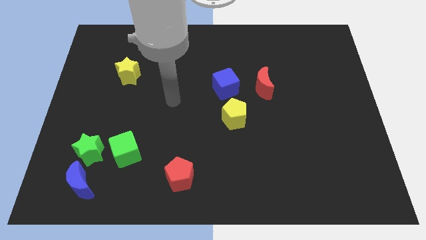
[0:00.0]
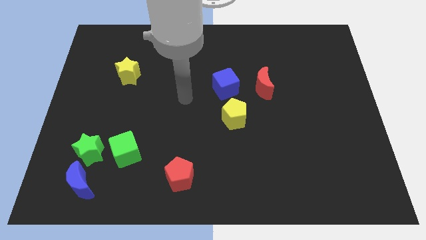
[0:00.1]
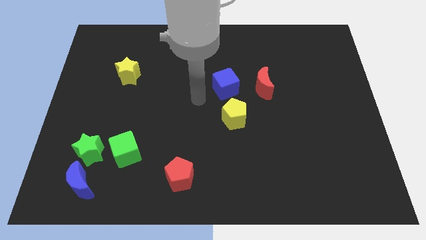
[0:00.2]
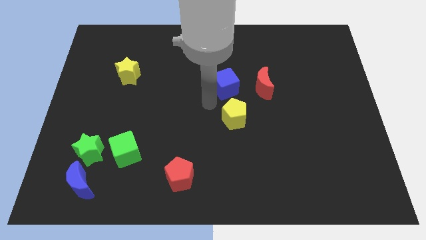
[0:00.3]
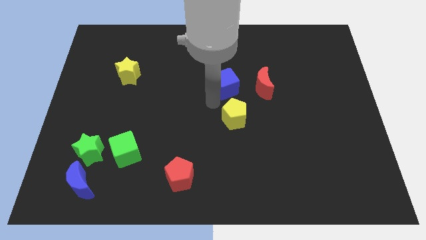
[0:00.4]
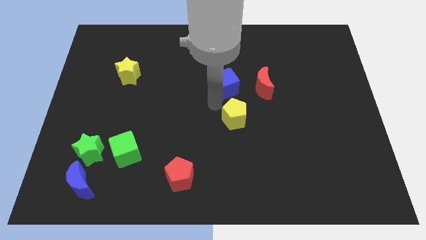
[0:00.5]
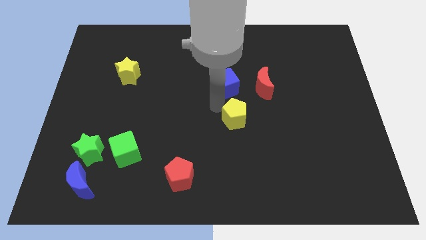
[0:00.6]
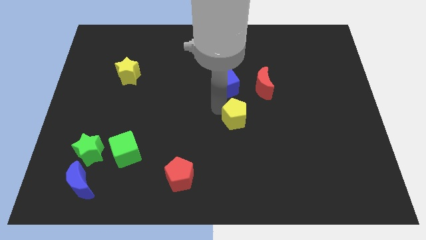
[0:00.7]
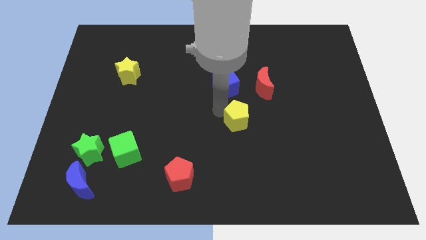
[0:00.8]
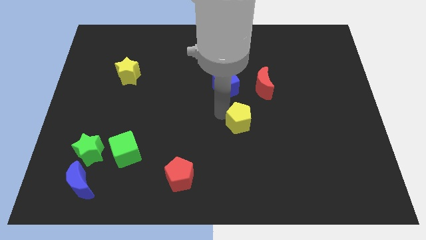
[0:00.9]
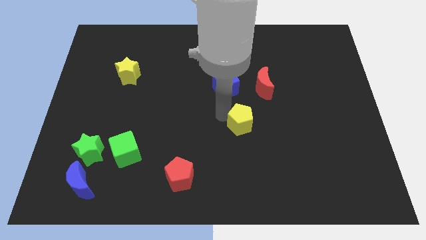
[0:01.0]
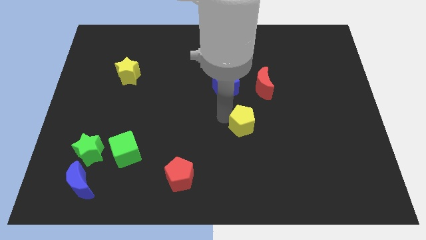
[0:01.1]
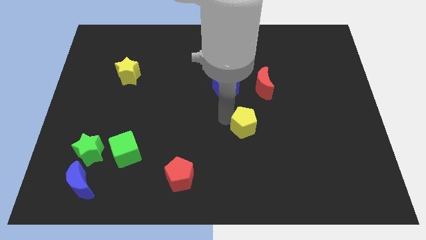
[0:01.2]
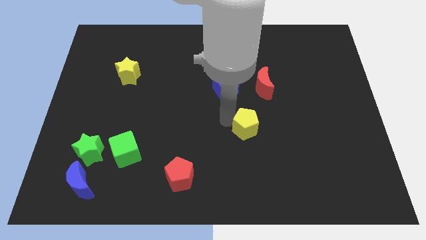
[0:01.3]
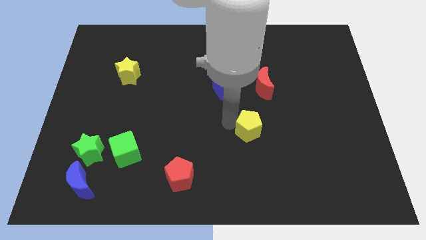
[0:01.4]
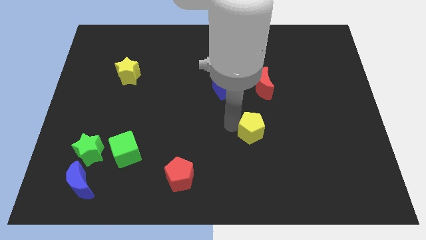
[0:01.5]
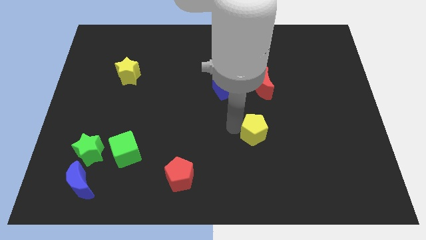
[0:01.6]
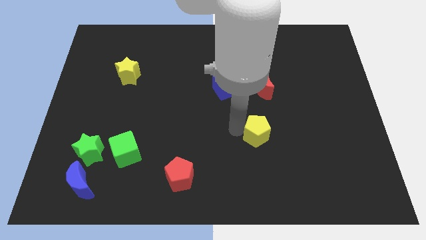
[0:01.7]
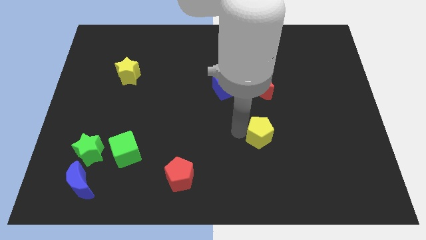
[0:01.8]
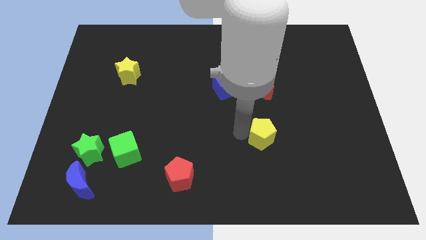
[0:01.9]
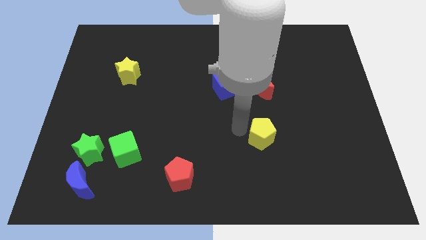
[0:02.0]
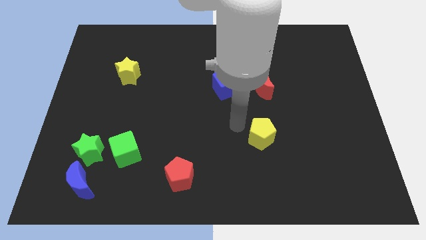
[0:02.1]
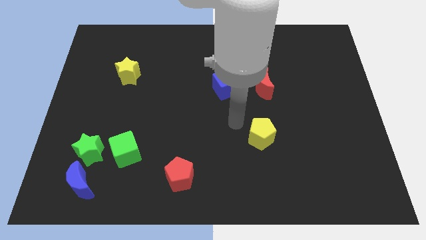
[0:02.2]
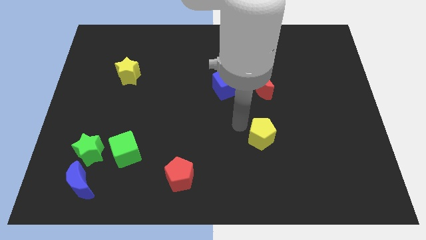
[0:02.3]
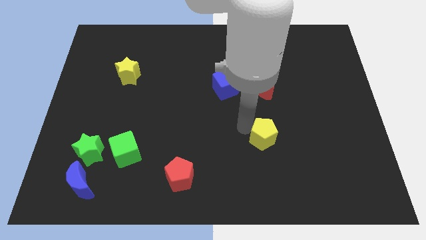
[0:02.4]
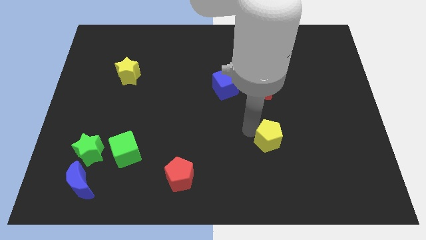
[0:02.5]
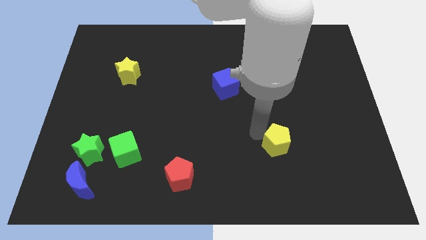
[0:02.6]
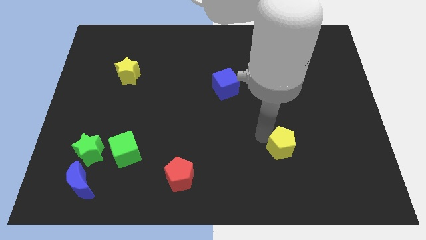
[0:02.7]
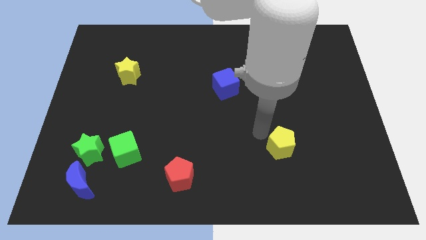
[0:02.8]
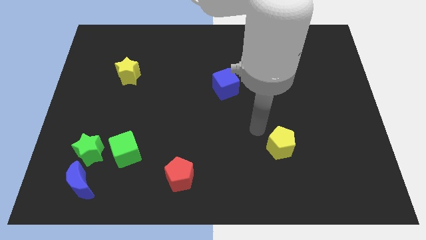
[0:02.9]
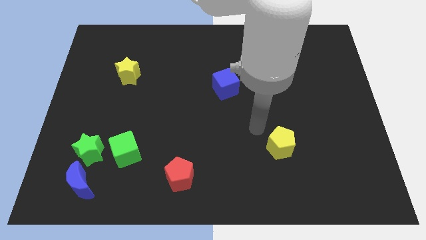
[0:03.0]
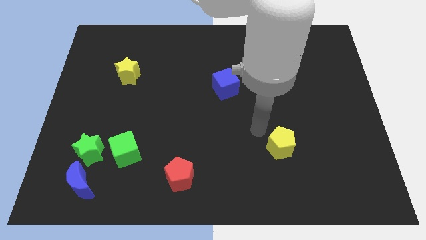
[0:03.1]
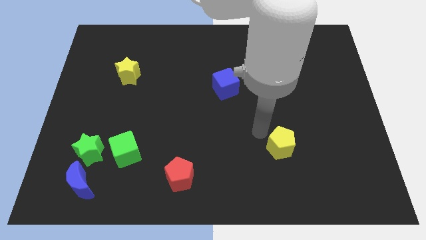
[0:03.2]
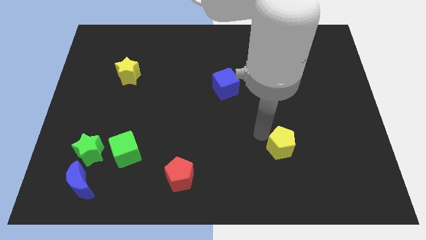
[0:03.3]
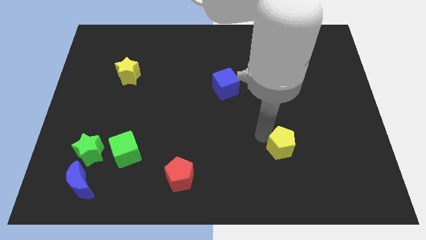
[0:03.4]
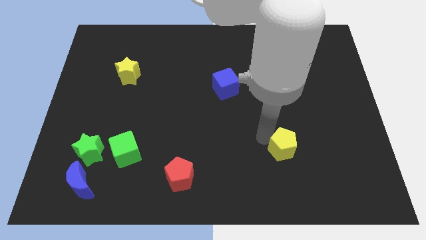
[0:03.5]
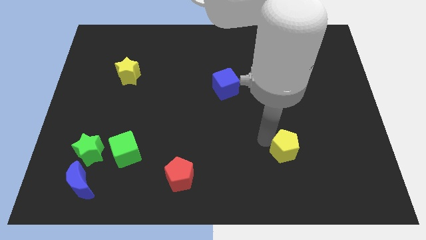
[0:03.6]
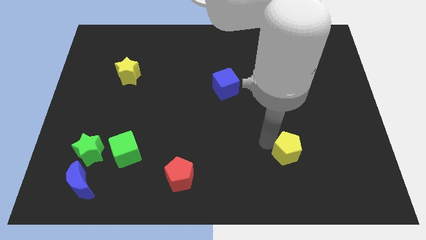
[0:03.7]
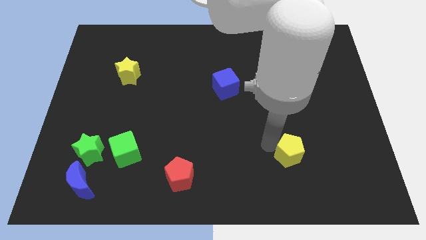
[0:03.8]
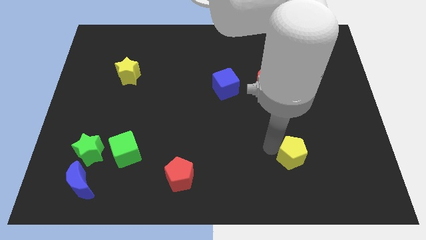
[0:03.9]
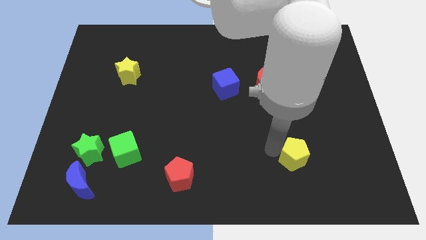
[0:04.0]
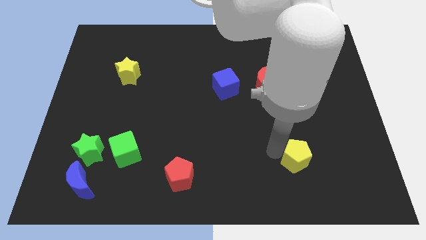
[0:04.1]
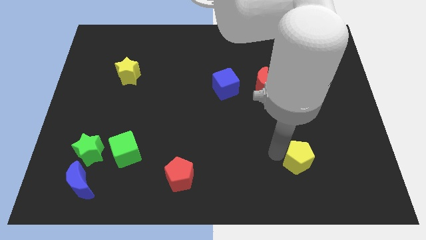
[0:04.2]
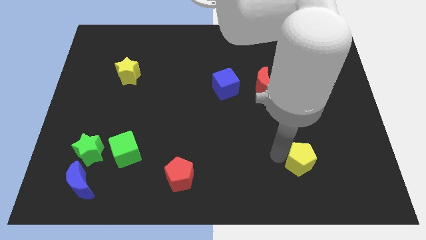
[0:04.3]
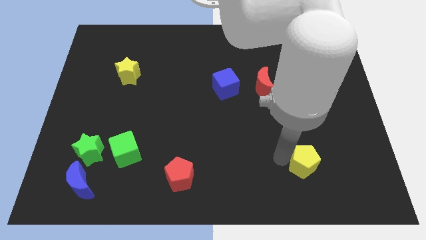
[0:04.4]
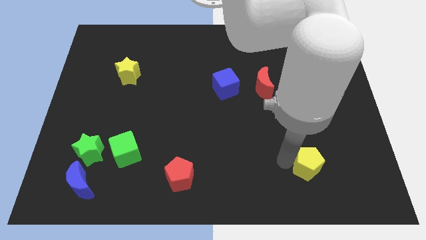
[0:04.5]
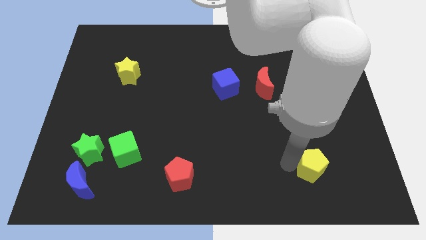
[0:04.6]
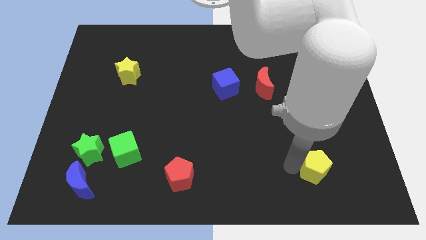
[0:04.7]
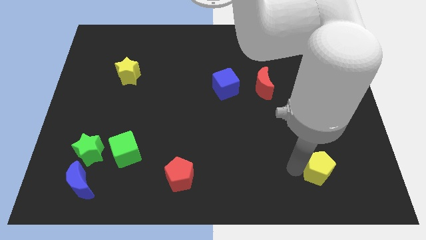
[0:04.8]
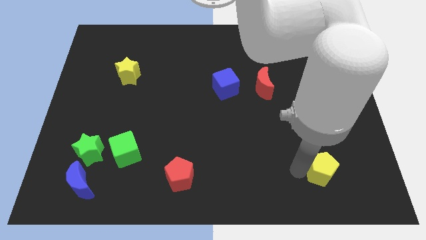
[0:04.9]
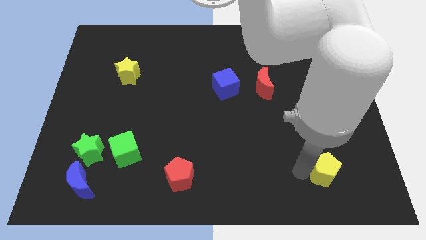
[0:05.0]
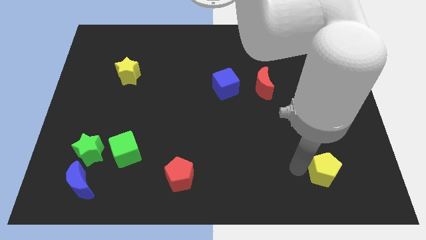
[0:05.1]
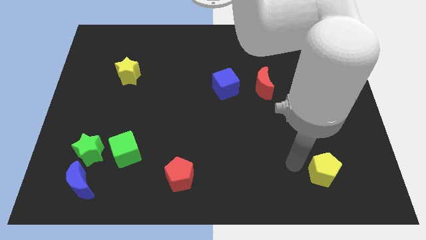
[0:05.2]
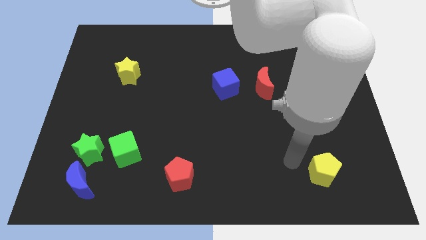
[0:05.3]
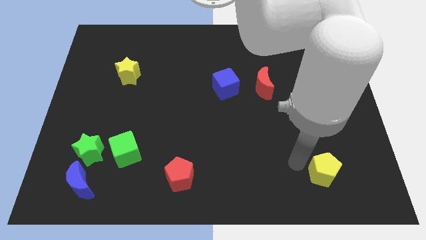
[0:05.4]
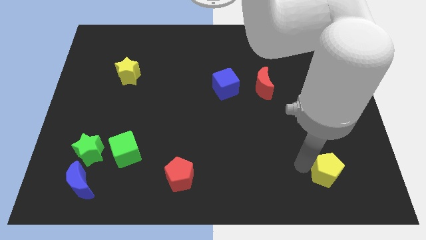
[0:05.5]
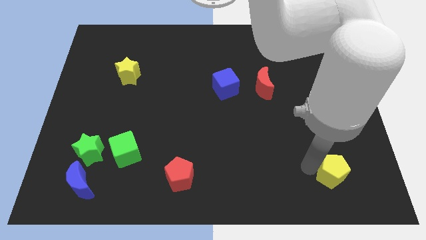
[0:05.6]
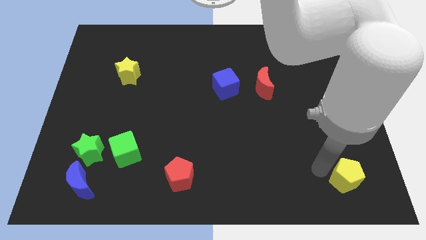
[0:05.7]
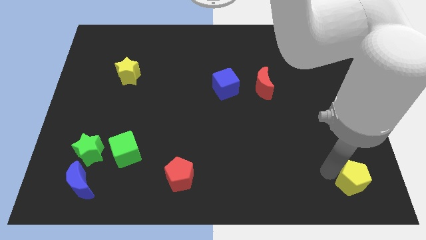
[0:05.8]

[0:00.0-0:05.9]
push the yellow pentagon to the bottom right corner
